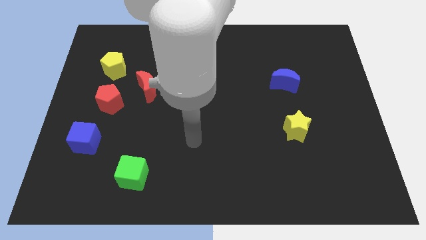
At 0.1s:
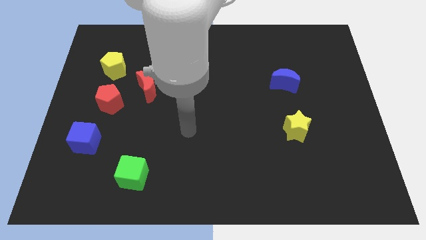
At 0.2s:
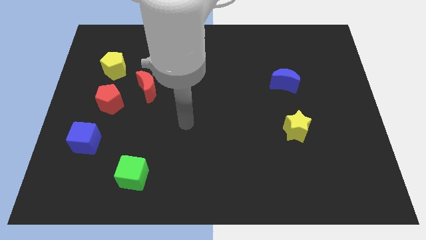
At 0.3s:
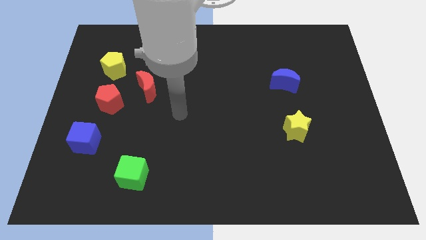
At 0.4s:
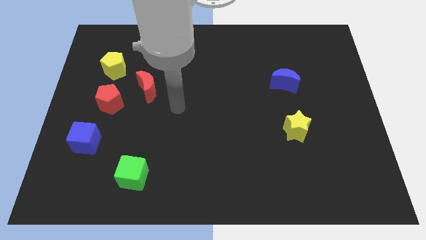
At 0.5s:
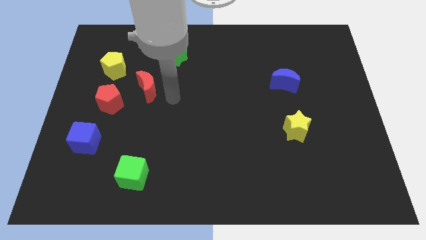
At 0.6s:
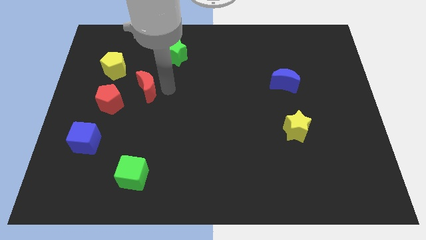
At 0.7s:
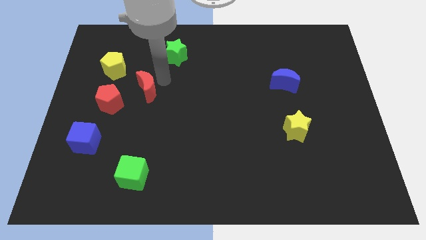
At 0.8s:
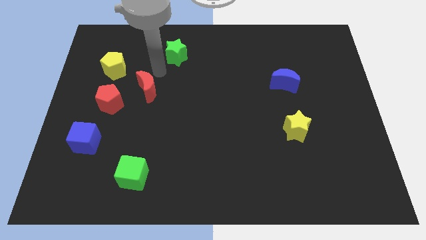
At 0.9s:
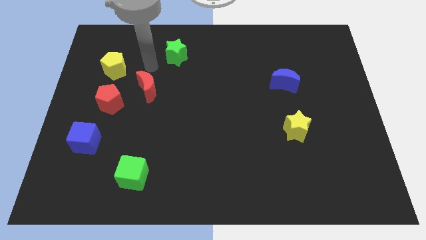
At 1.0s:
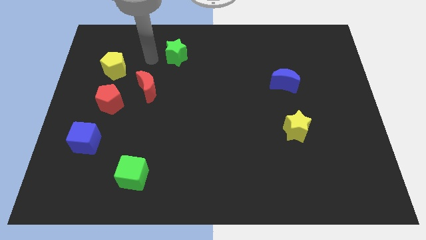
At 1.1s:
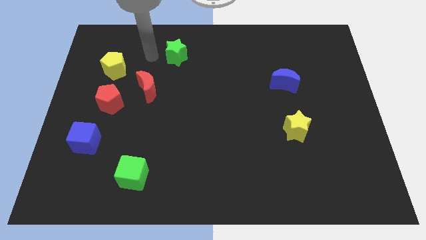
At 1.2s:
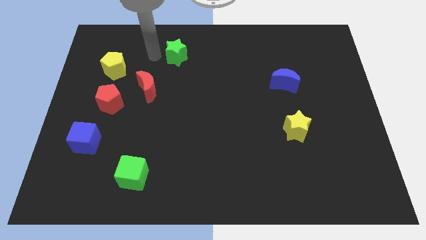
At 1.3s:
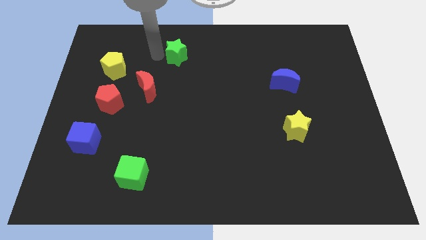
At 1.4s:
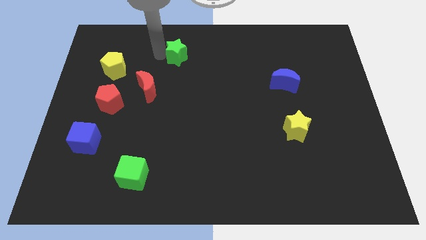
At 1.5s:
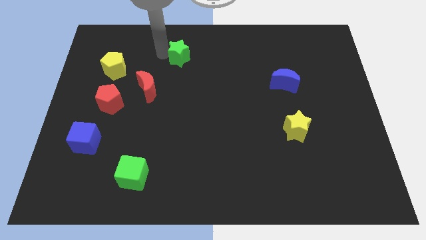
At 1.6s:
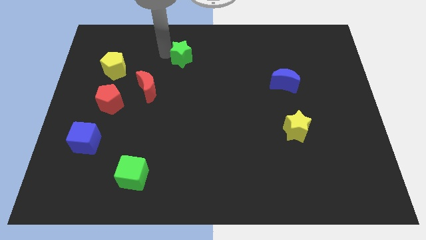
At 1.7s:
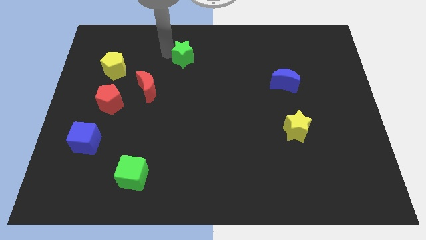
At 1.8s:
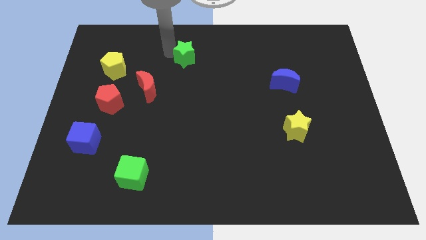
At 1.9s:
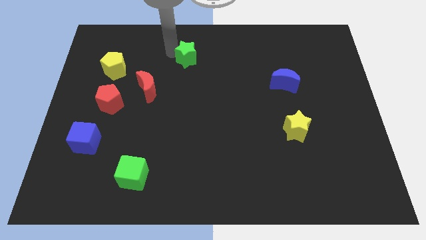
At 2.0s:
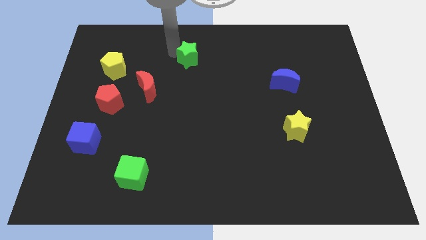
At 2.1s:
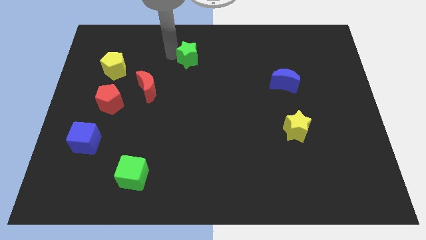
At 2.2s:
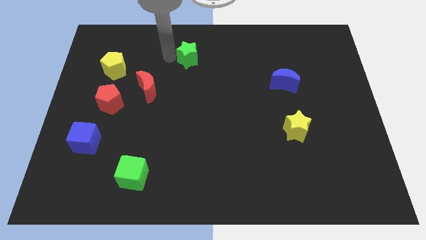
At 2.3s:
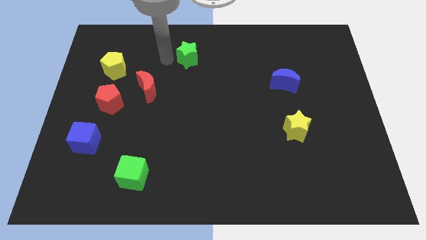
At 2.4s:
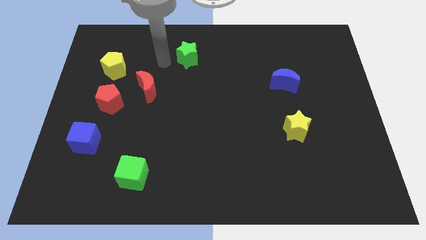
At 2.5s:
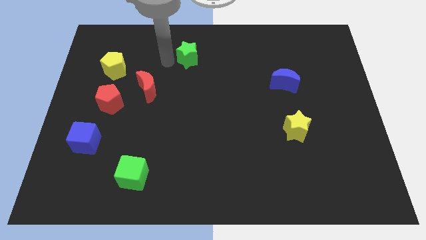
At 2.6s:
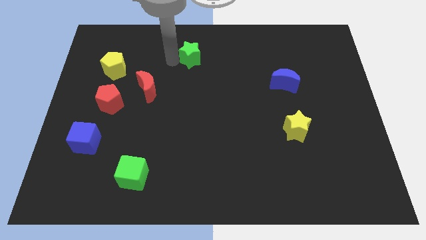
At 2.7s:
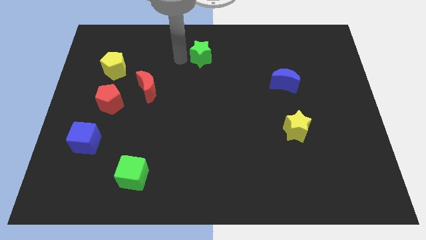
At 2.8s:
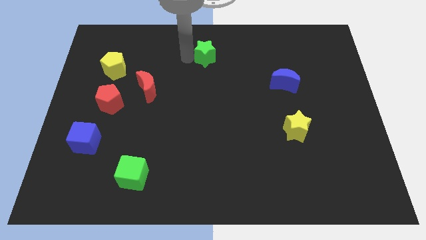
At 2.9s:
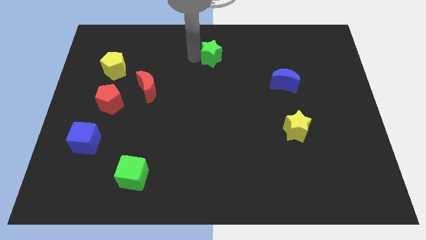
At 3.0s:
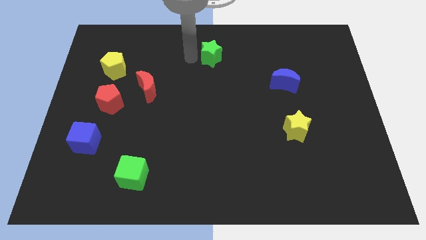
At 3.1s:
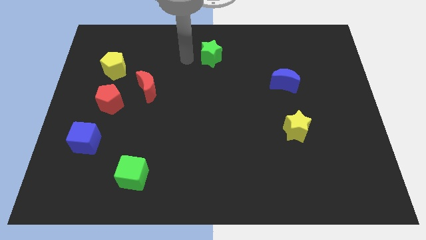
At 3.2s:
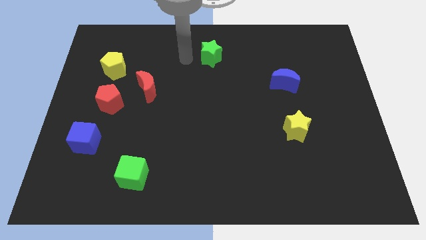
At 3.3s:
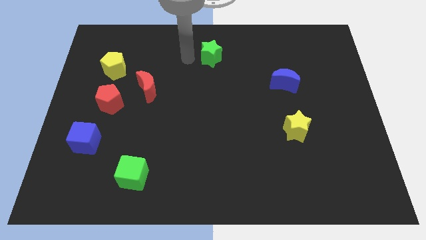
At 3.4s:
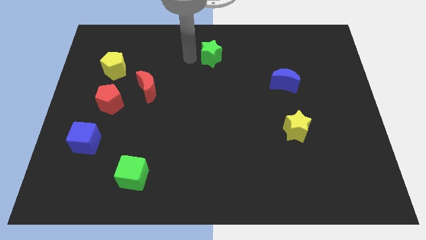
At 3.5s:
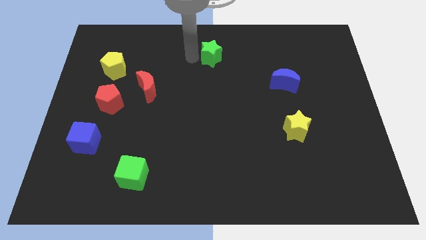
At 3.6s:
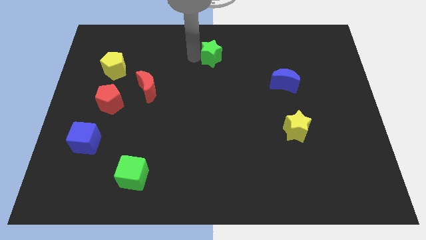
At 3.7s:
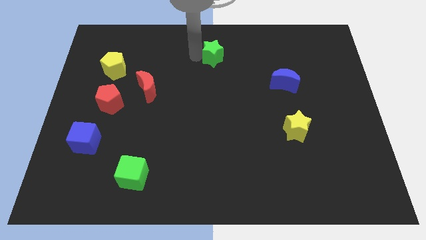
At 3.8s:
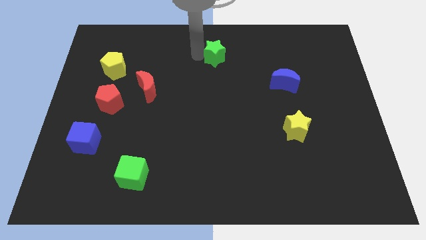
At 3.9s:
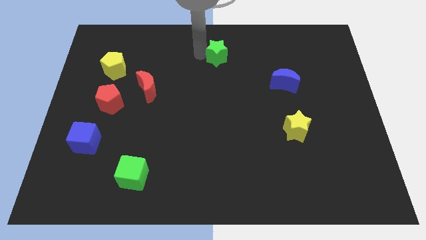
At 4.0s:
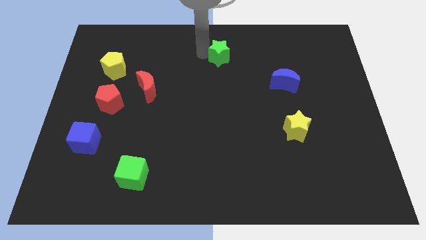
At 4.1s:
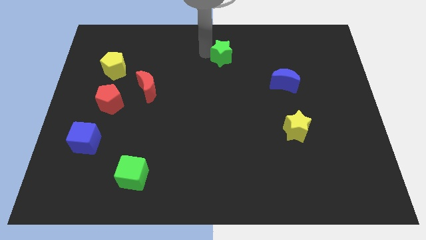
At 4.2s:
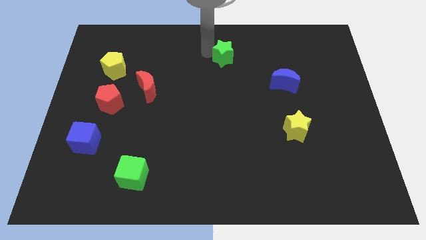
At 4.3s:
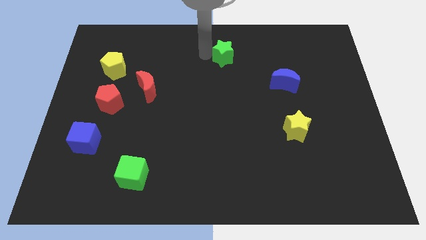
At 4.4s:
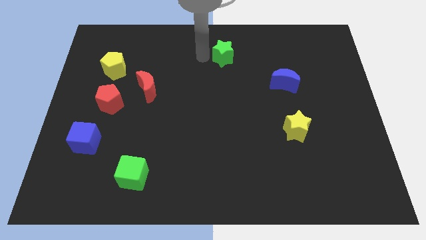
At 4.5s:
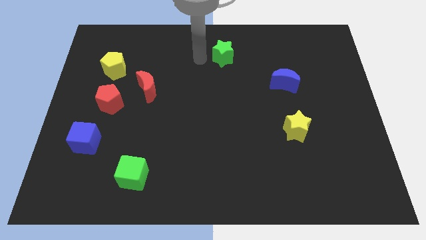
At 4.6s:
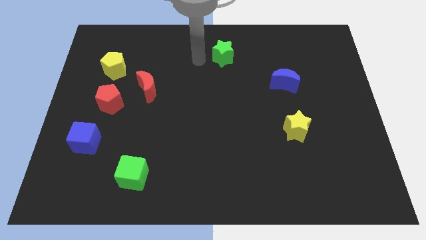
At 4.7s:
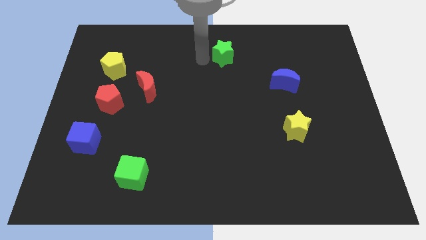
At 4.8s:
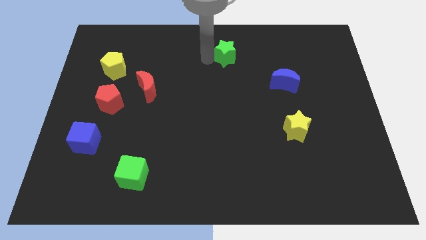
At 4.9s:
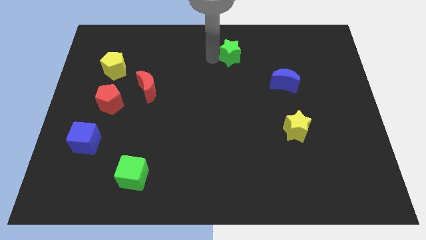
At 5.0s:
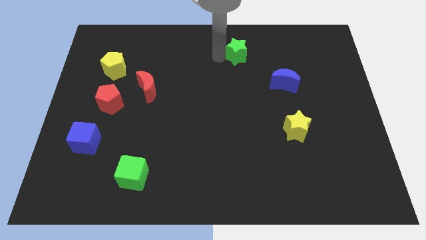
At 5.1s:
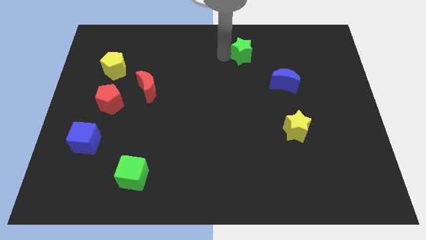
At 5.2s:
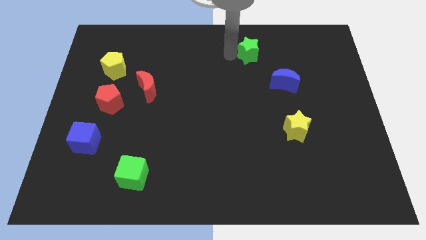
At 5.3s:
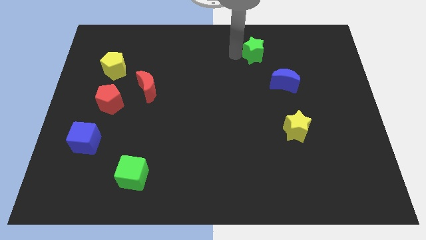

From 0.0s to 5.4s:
slide the green star right

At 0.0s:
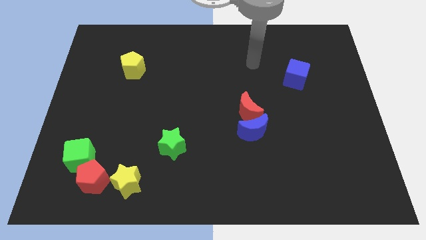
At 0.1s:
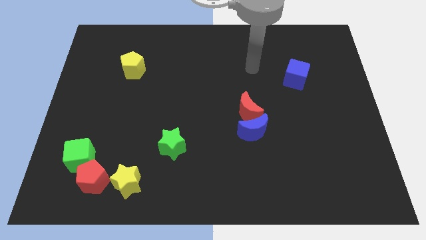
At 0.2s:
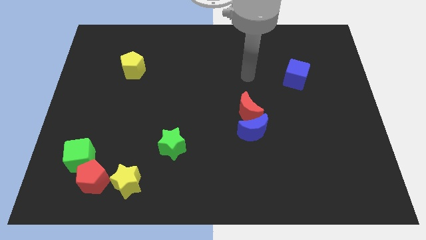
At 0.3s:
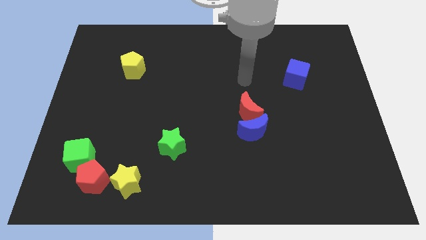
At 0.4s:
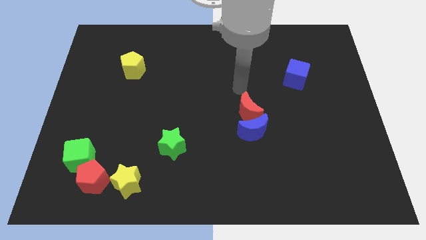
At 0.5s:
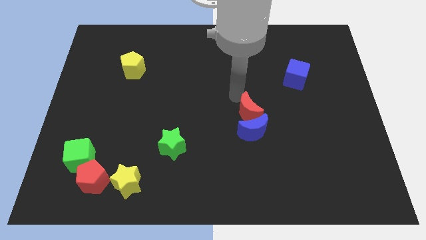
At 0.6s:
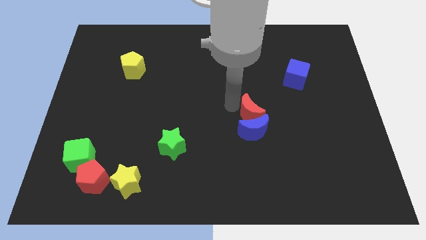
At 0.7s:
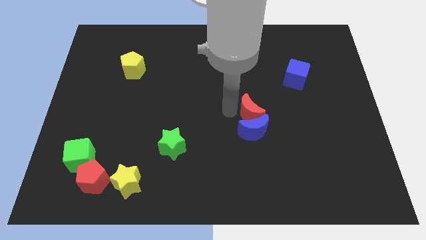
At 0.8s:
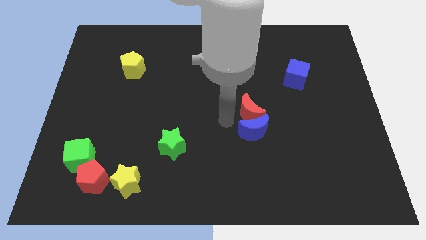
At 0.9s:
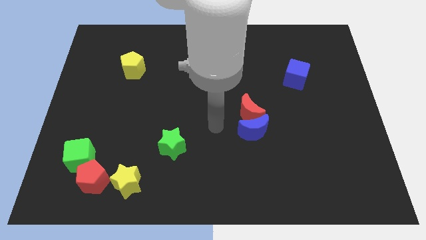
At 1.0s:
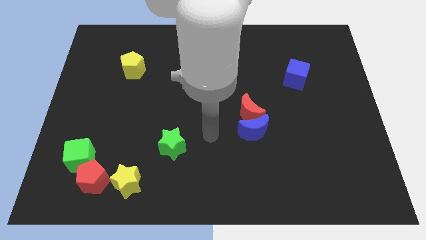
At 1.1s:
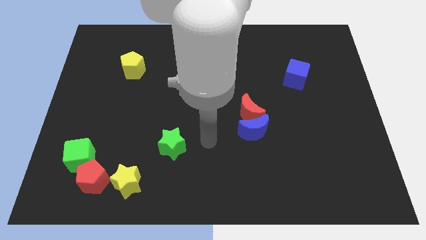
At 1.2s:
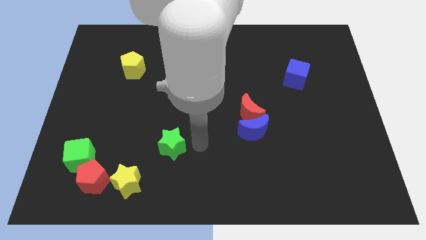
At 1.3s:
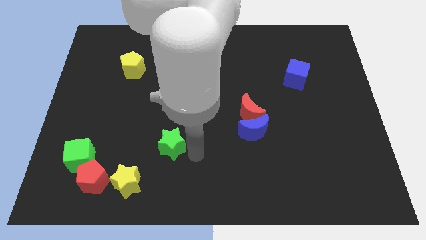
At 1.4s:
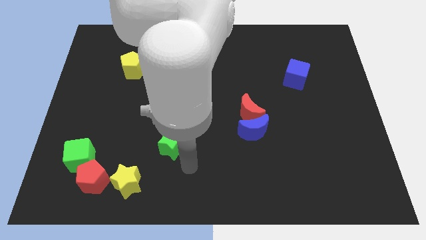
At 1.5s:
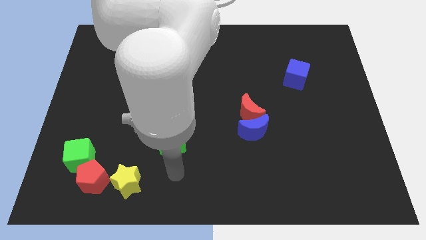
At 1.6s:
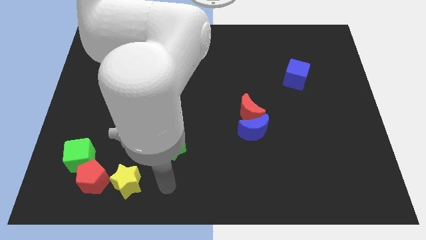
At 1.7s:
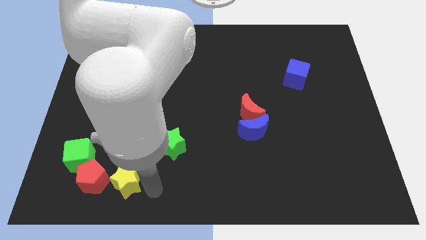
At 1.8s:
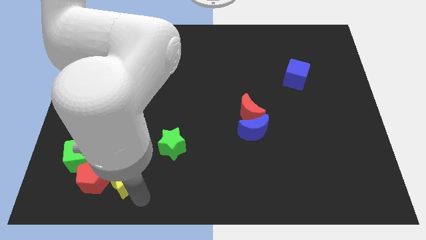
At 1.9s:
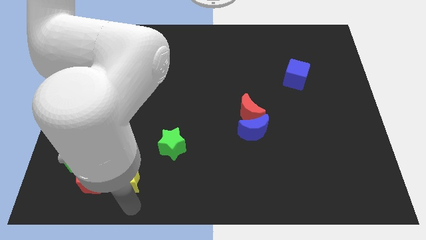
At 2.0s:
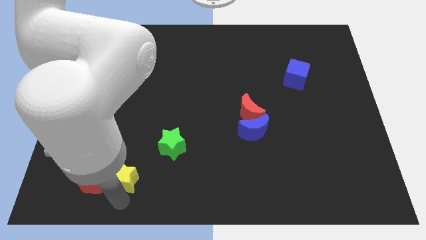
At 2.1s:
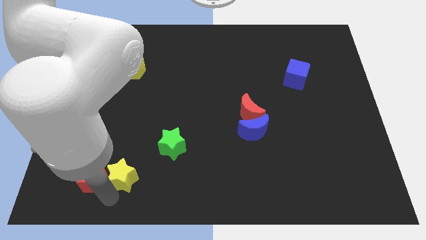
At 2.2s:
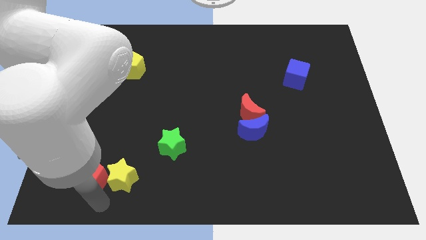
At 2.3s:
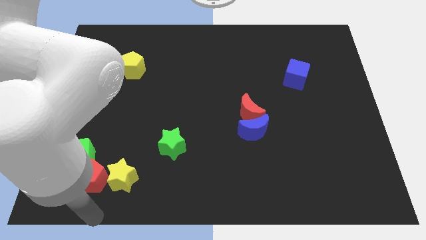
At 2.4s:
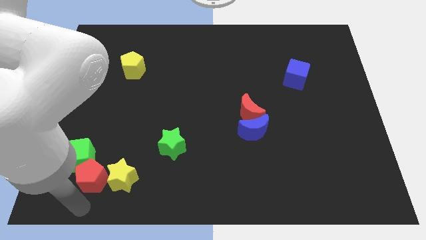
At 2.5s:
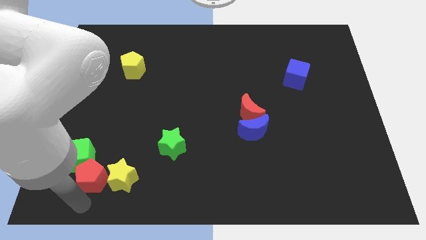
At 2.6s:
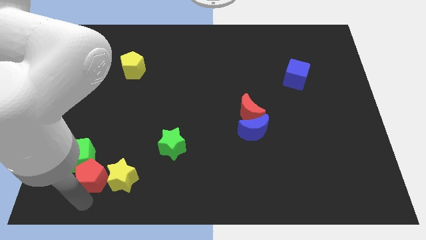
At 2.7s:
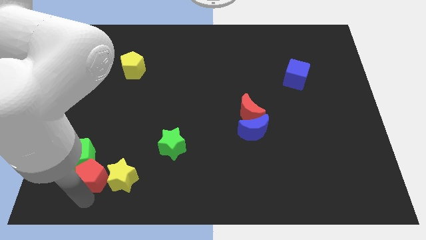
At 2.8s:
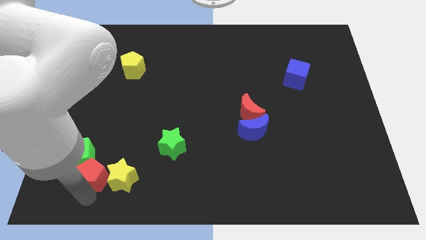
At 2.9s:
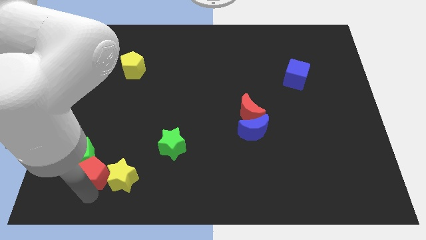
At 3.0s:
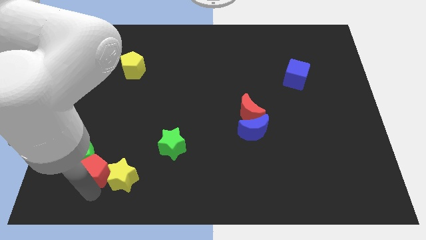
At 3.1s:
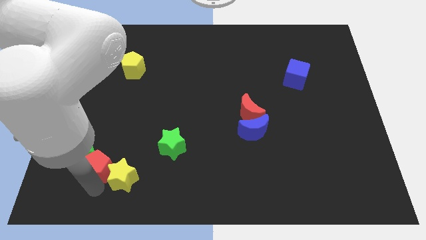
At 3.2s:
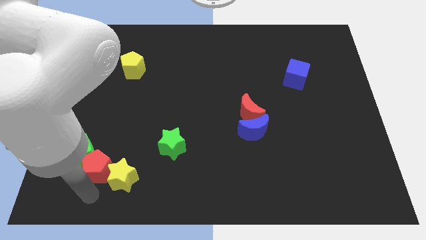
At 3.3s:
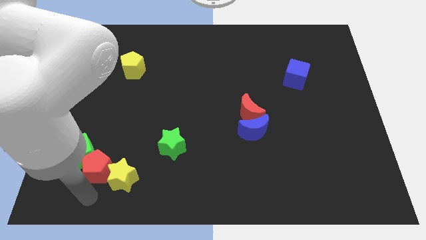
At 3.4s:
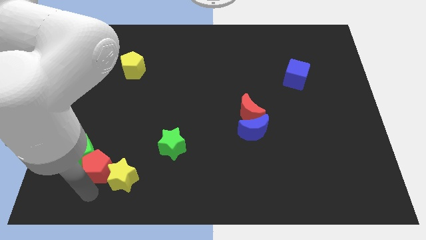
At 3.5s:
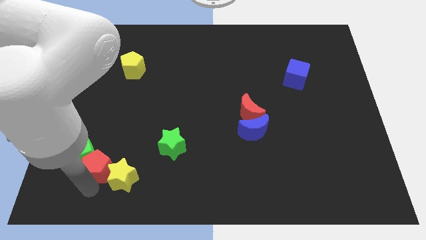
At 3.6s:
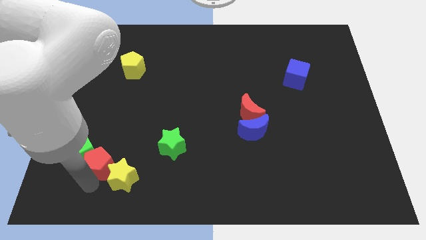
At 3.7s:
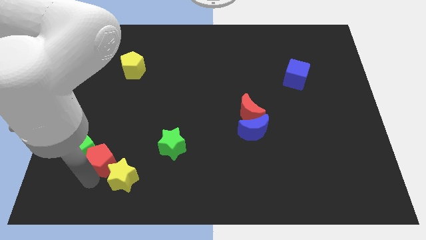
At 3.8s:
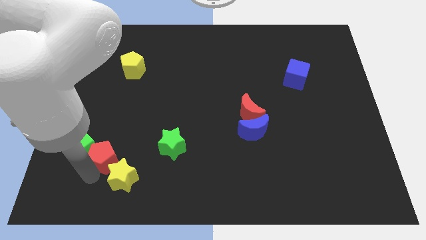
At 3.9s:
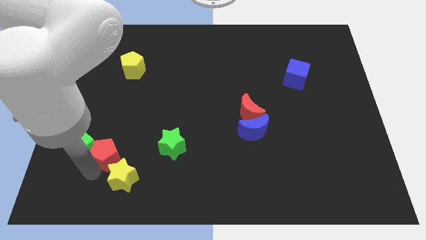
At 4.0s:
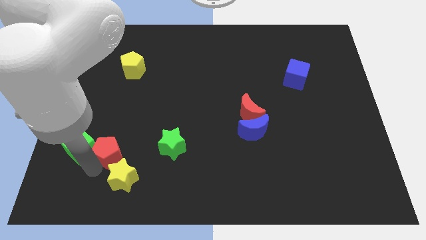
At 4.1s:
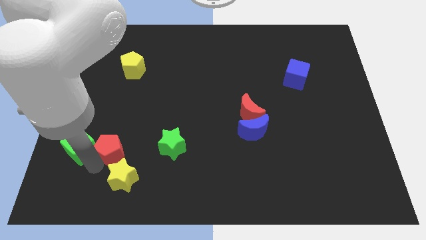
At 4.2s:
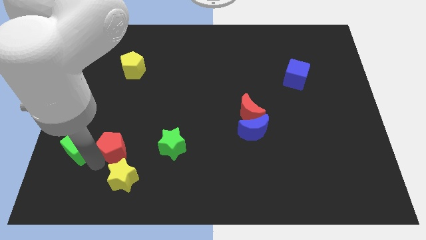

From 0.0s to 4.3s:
push the red pentagon up slightly
